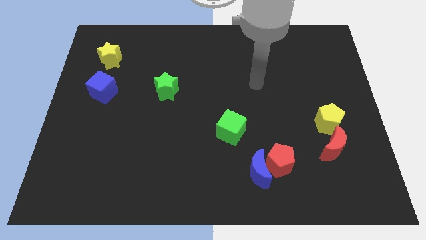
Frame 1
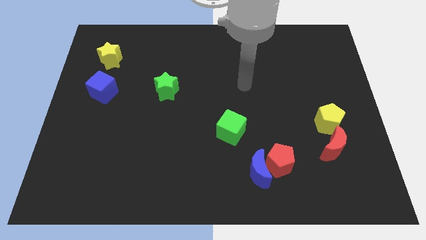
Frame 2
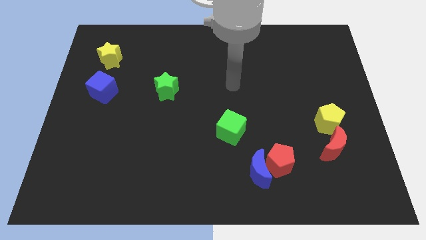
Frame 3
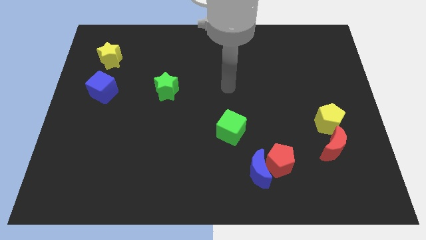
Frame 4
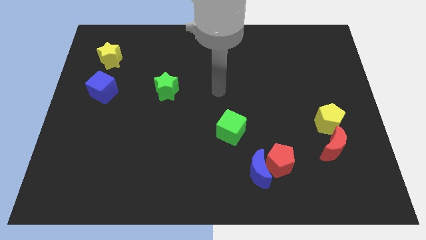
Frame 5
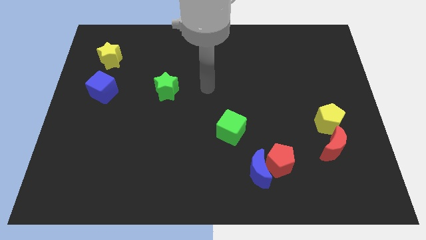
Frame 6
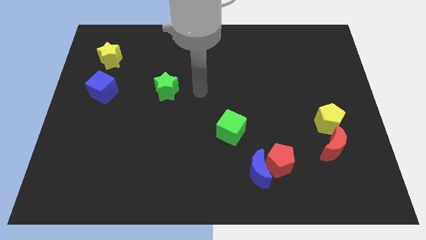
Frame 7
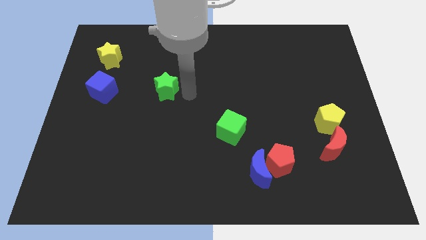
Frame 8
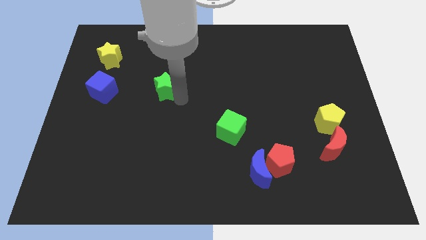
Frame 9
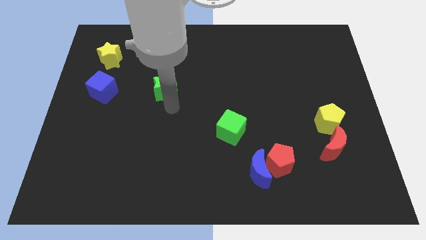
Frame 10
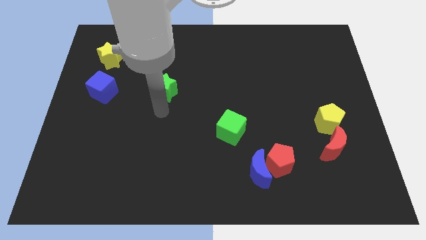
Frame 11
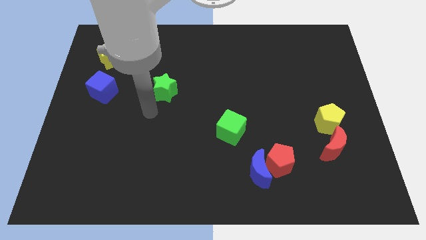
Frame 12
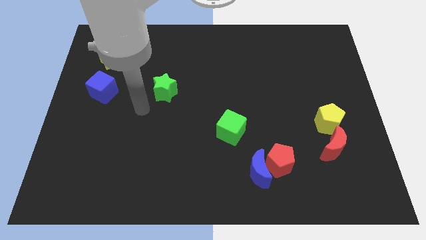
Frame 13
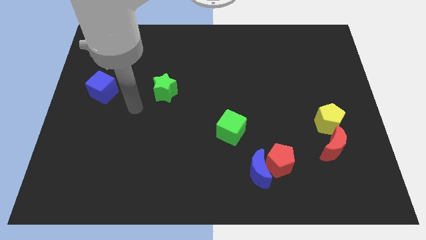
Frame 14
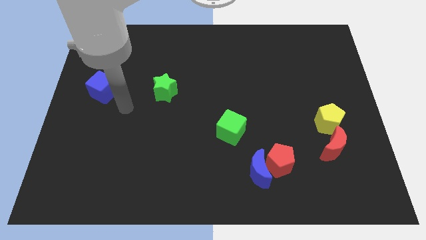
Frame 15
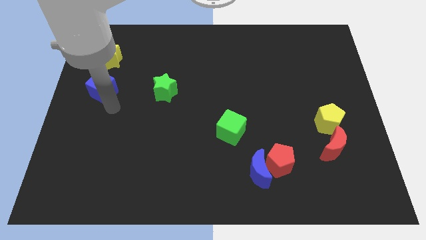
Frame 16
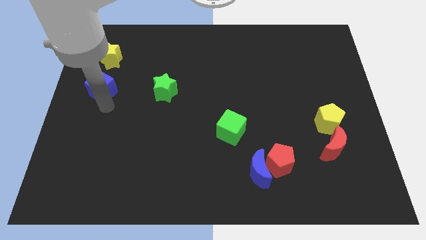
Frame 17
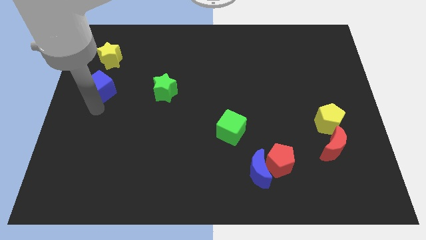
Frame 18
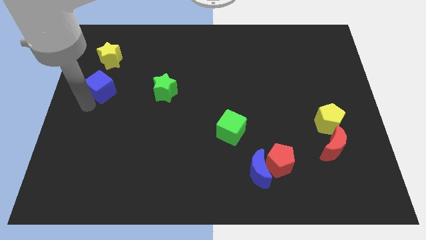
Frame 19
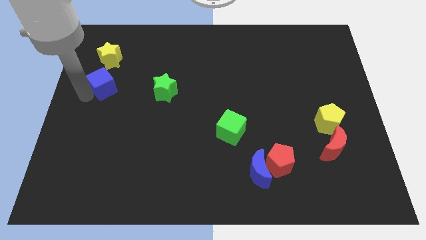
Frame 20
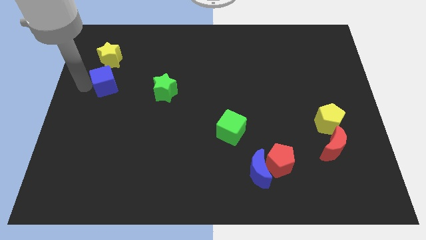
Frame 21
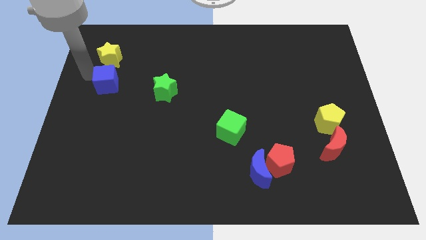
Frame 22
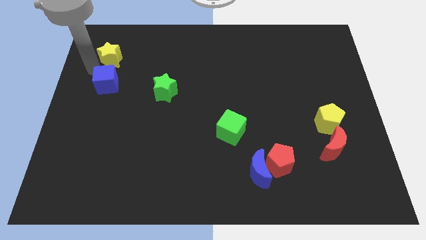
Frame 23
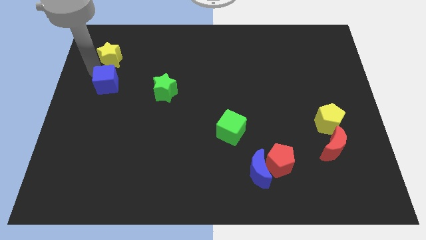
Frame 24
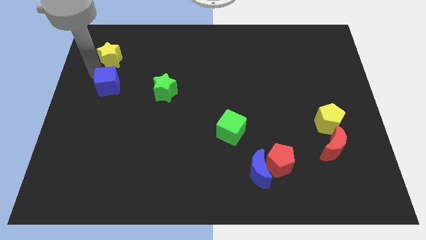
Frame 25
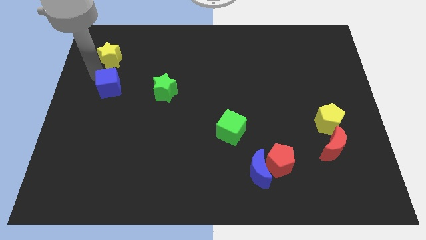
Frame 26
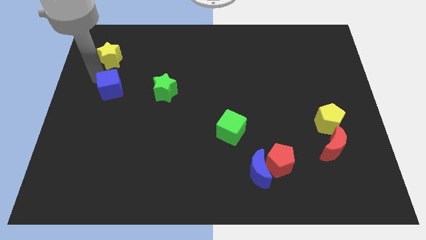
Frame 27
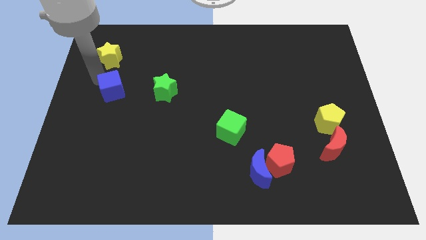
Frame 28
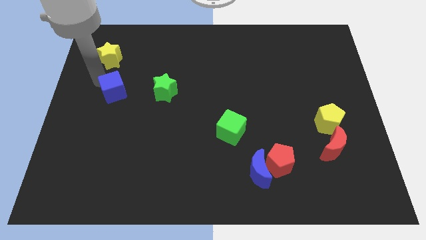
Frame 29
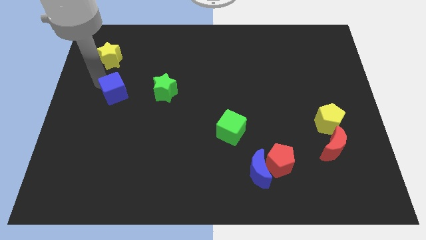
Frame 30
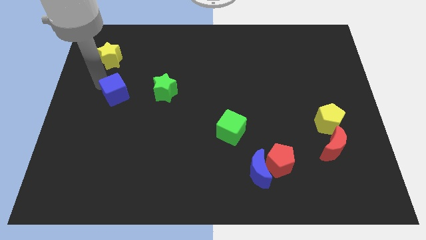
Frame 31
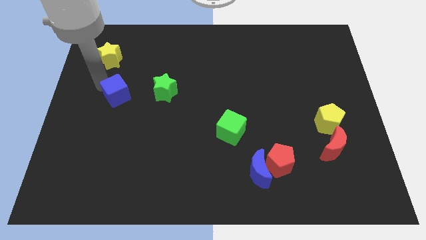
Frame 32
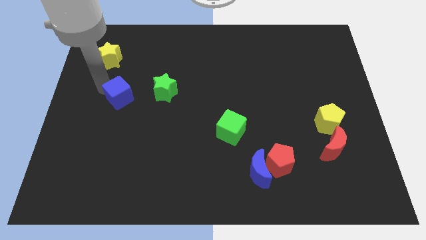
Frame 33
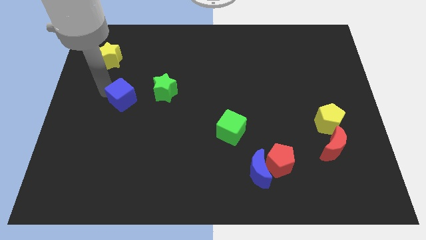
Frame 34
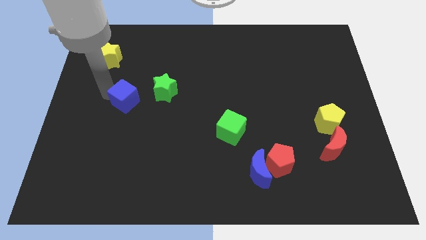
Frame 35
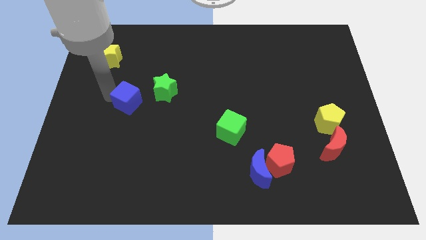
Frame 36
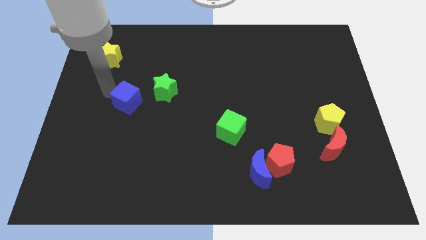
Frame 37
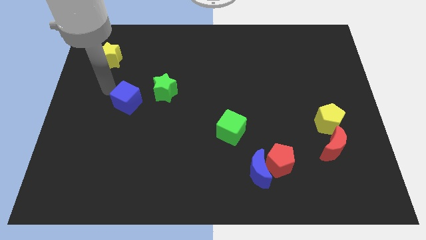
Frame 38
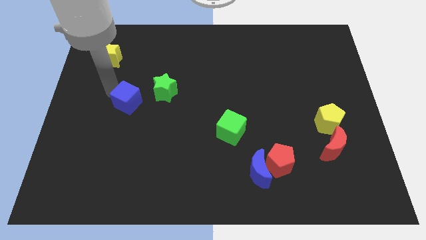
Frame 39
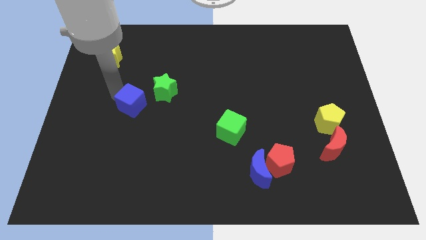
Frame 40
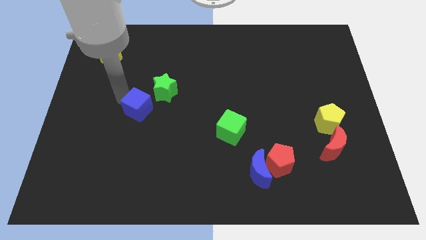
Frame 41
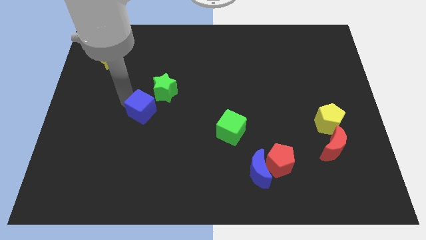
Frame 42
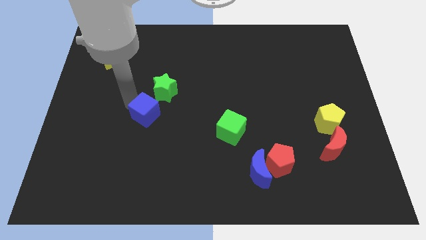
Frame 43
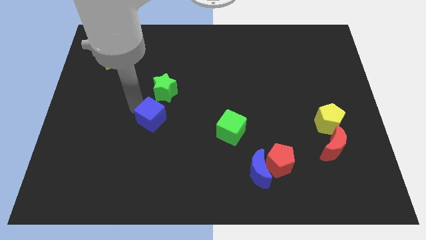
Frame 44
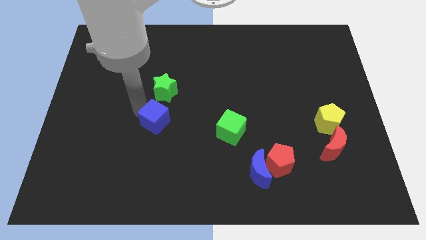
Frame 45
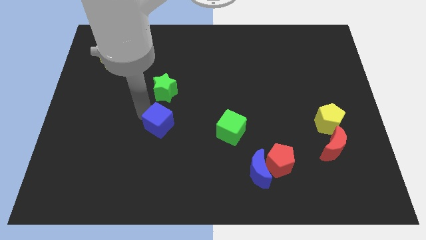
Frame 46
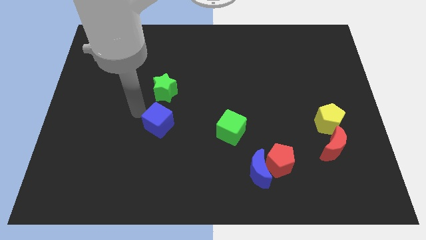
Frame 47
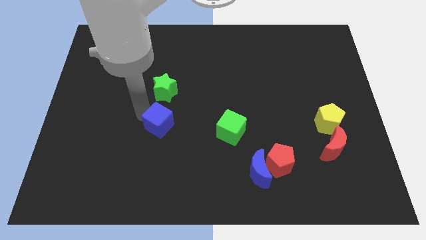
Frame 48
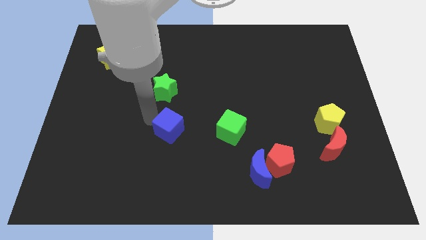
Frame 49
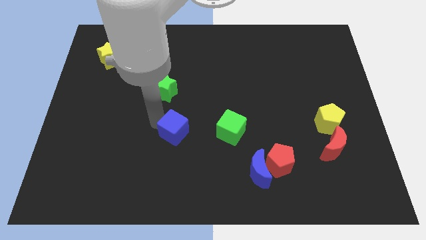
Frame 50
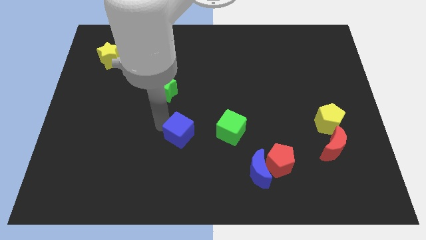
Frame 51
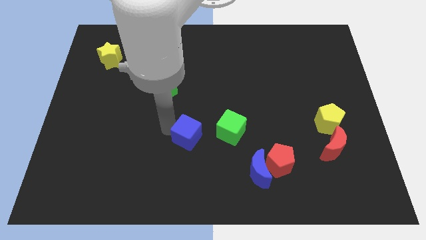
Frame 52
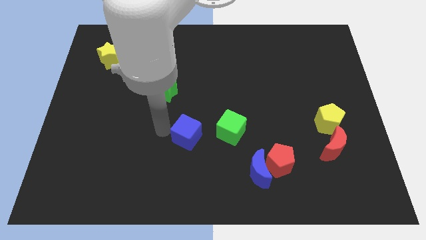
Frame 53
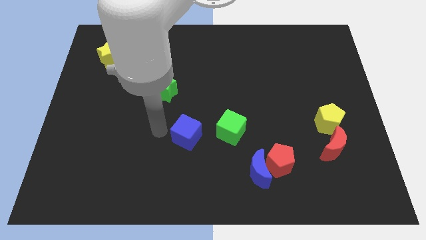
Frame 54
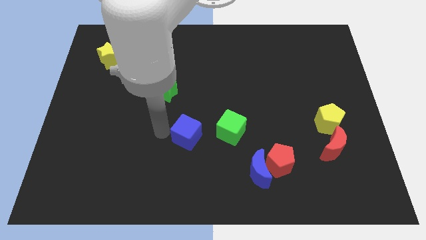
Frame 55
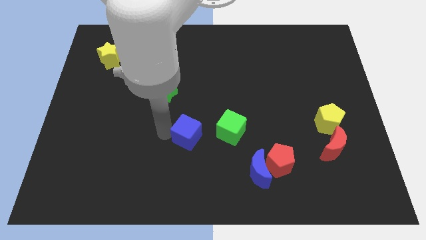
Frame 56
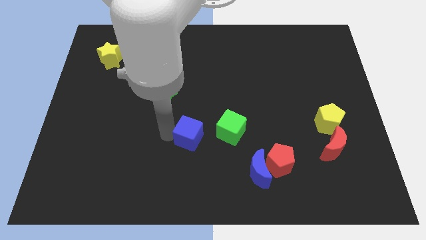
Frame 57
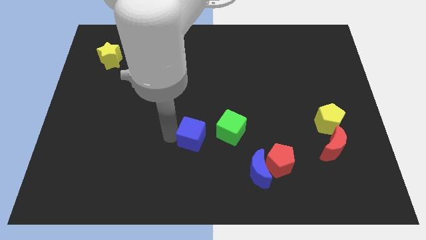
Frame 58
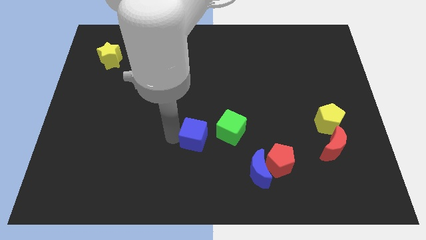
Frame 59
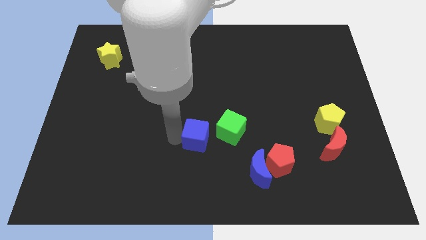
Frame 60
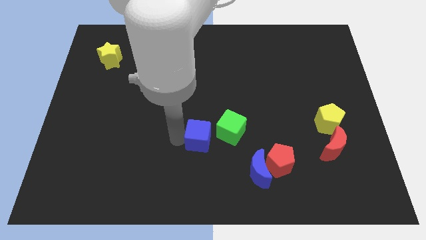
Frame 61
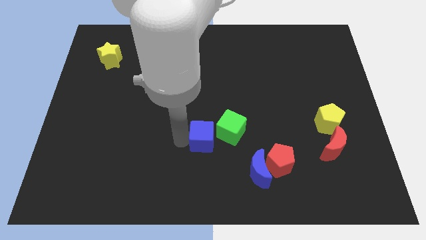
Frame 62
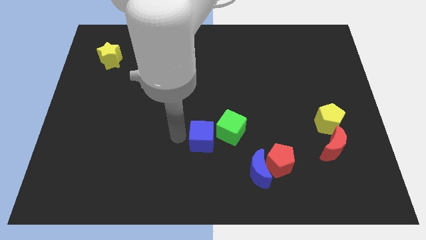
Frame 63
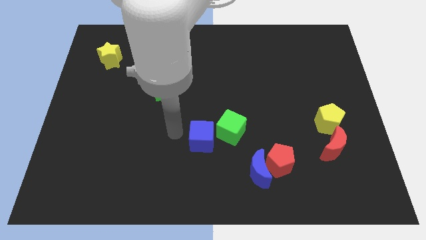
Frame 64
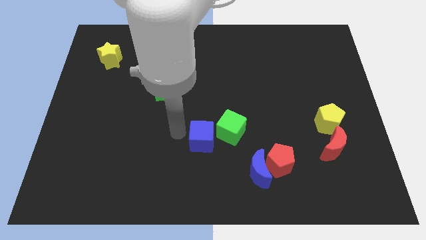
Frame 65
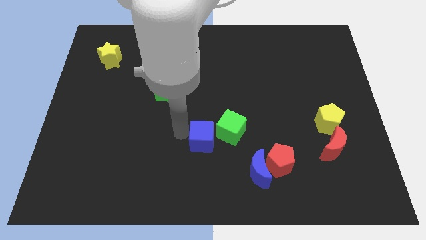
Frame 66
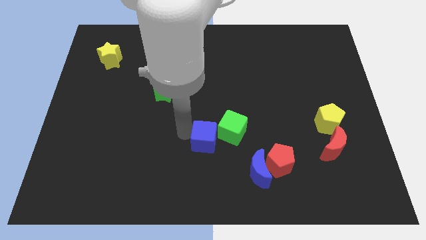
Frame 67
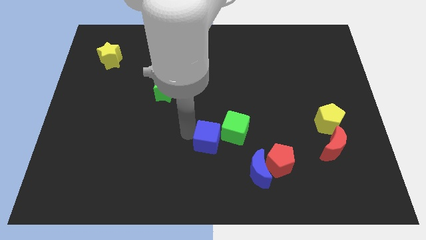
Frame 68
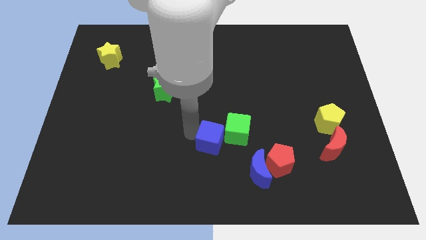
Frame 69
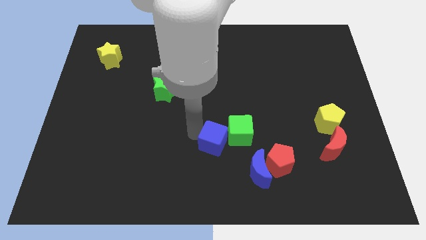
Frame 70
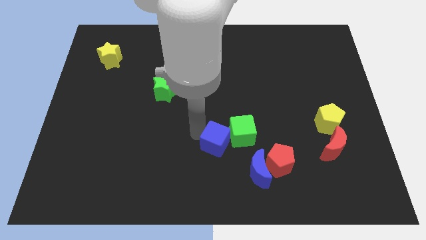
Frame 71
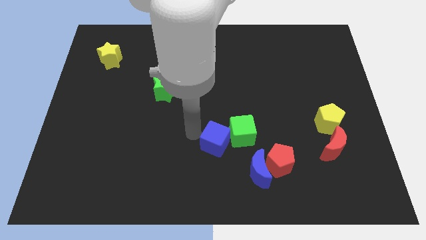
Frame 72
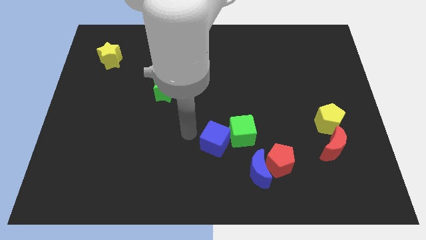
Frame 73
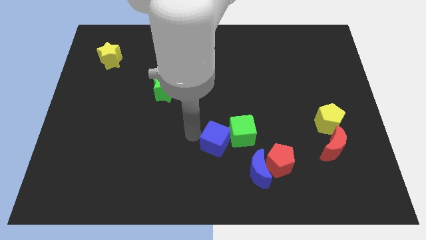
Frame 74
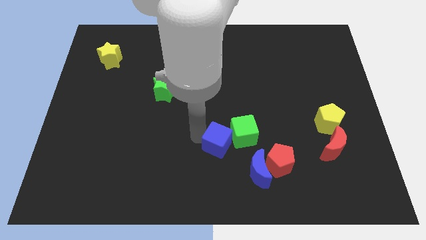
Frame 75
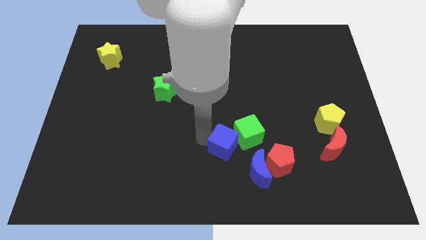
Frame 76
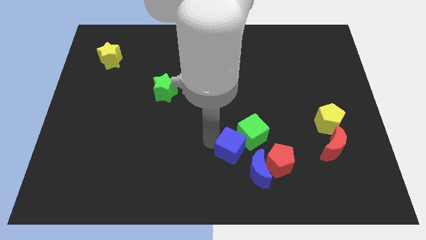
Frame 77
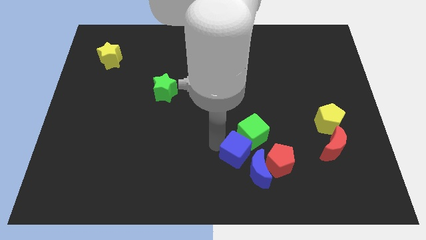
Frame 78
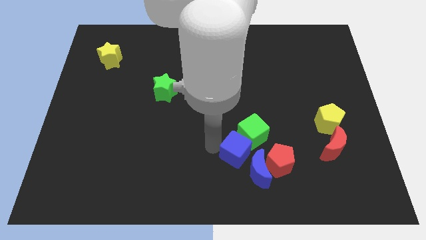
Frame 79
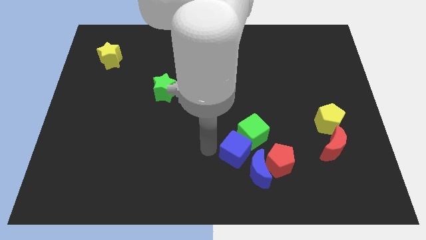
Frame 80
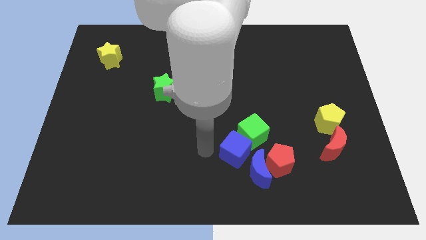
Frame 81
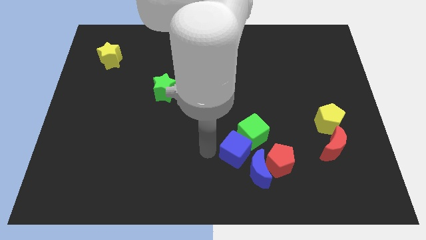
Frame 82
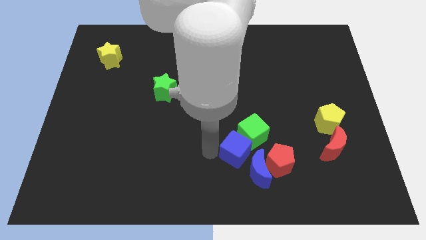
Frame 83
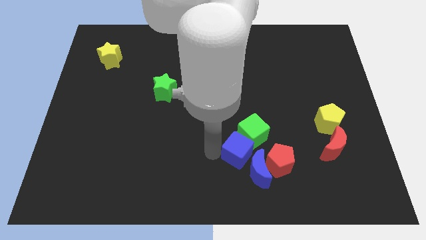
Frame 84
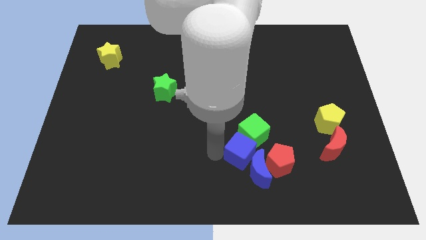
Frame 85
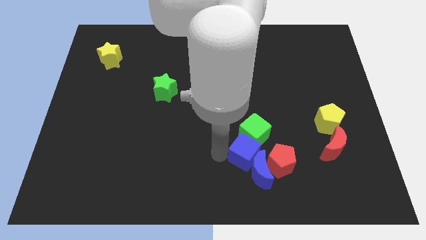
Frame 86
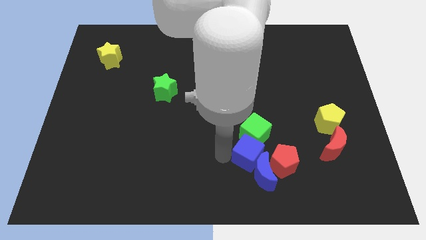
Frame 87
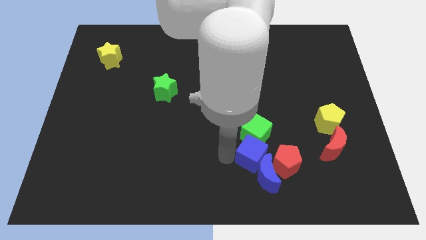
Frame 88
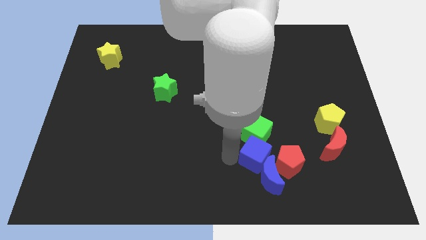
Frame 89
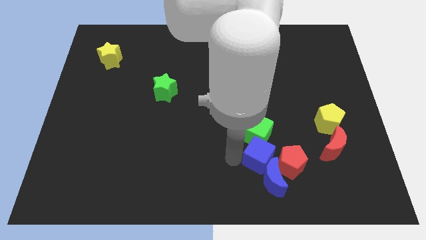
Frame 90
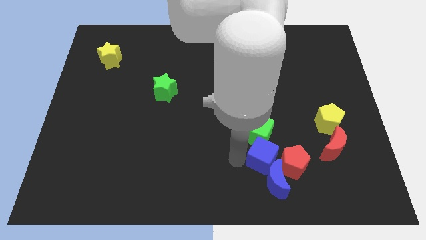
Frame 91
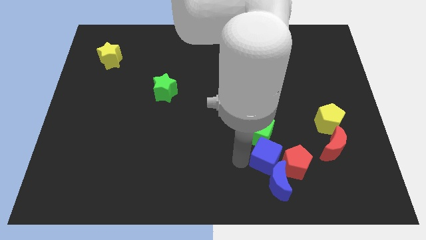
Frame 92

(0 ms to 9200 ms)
put the blue cube next to the red pentagon
